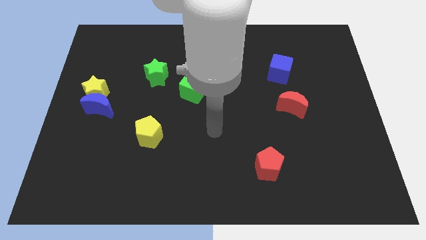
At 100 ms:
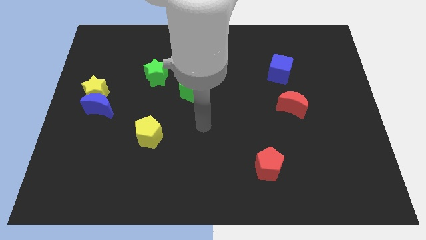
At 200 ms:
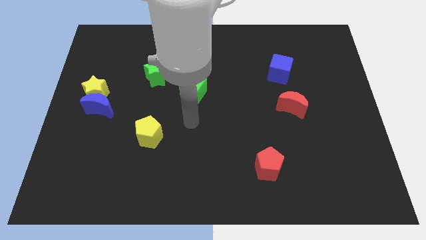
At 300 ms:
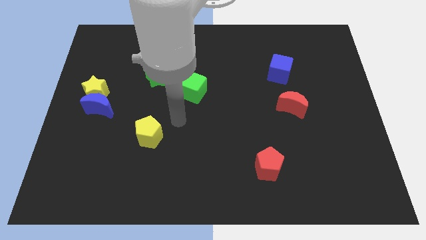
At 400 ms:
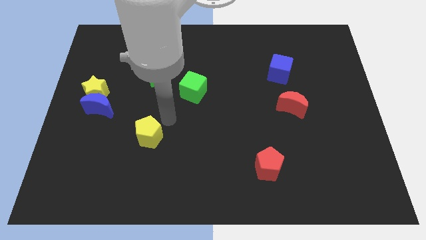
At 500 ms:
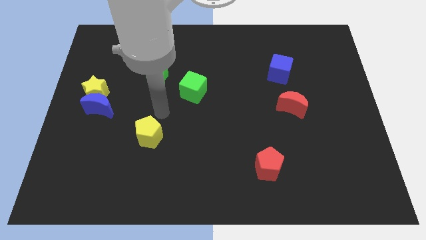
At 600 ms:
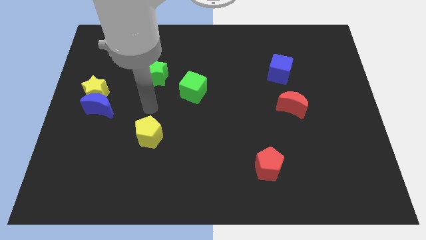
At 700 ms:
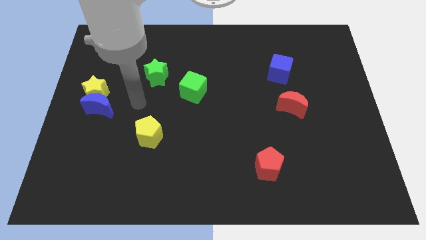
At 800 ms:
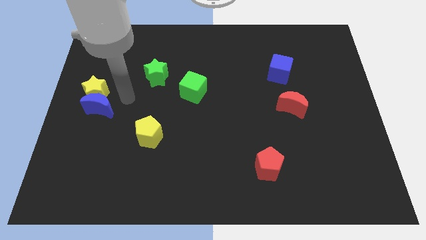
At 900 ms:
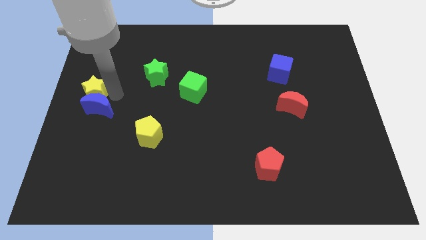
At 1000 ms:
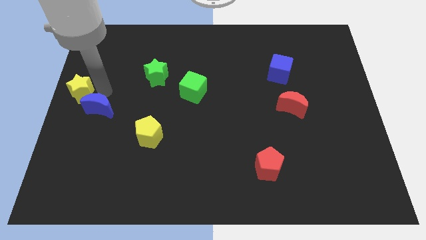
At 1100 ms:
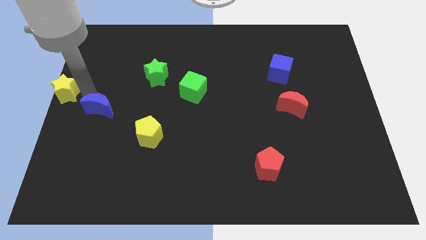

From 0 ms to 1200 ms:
separate the blue moon from the yellow star

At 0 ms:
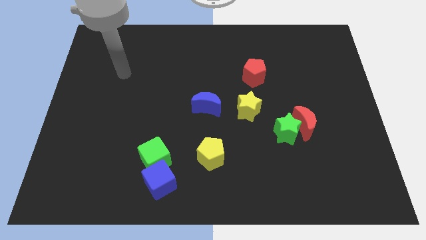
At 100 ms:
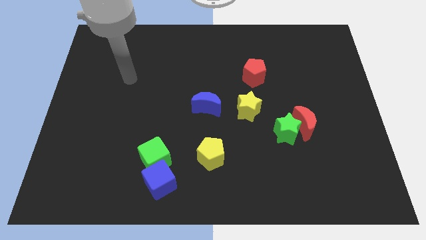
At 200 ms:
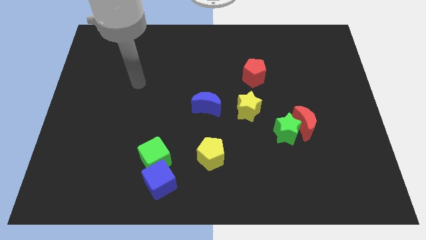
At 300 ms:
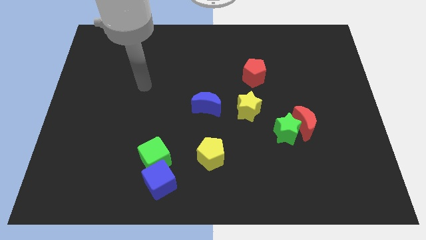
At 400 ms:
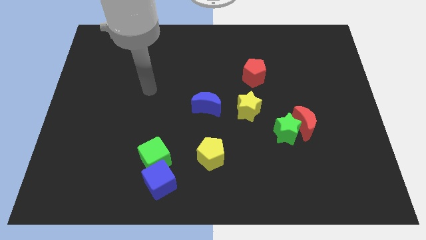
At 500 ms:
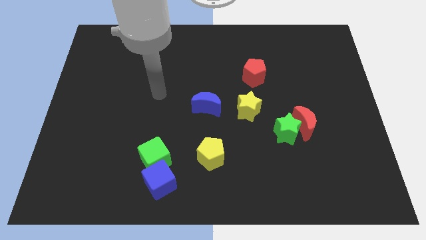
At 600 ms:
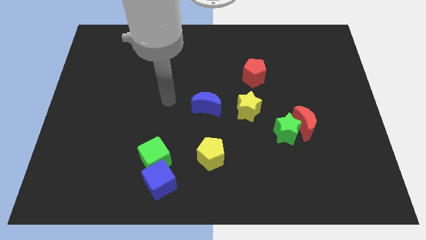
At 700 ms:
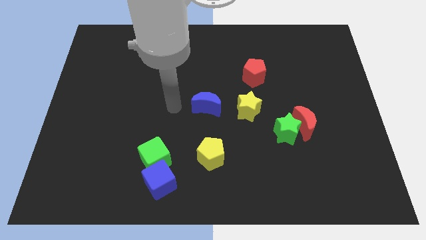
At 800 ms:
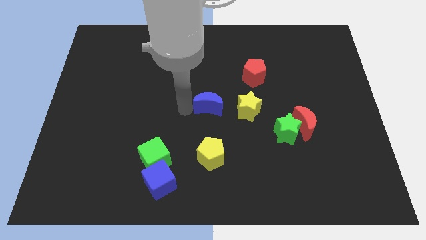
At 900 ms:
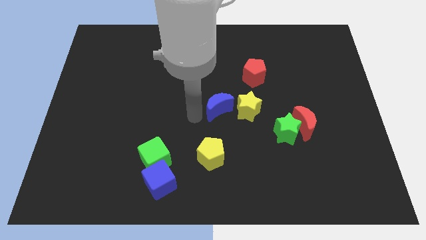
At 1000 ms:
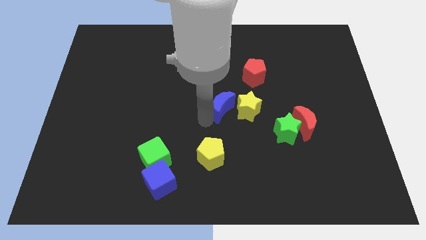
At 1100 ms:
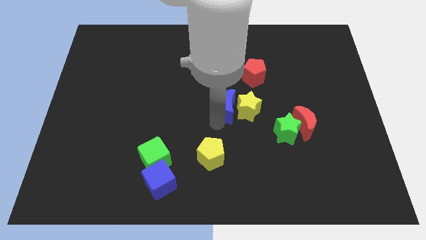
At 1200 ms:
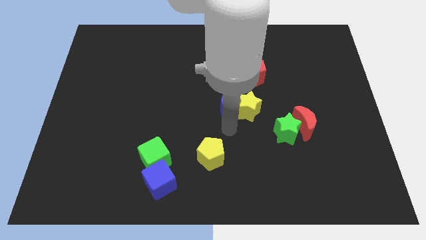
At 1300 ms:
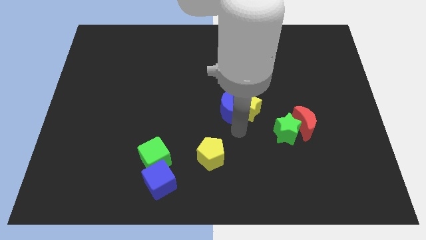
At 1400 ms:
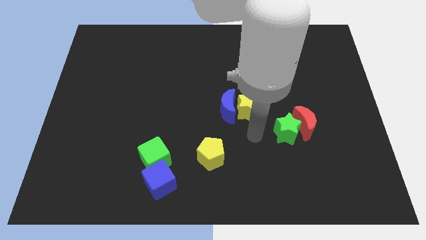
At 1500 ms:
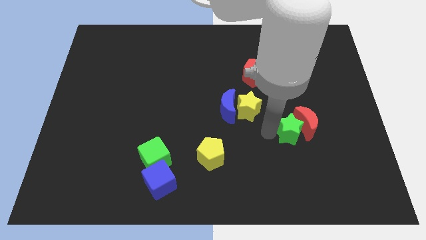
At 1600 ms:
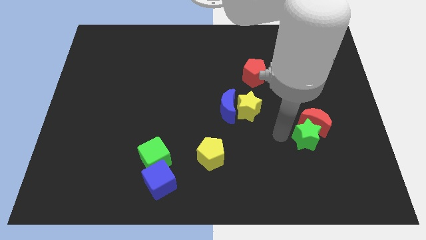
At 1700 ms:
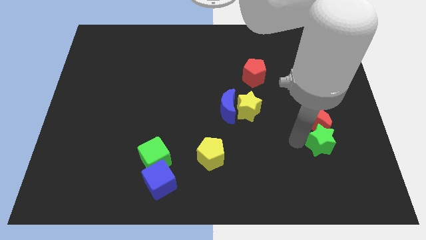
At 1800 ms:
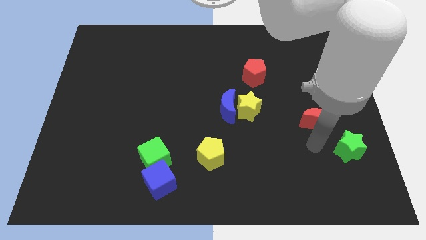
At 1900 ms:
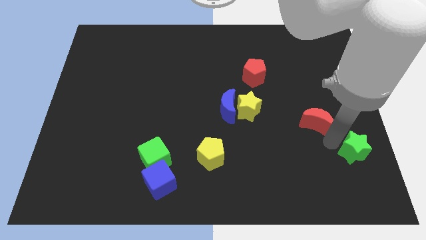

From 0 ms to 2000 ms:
move the red moon away from the green star

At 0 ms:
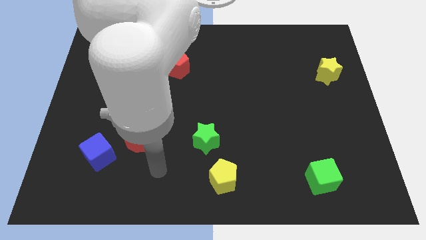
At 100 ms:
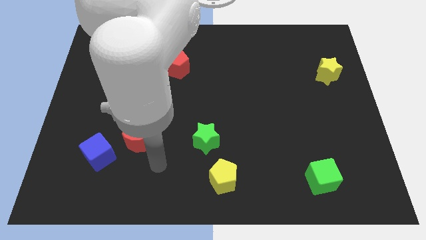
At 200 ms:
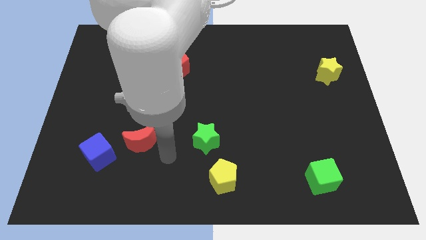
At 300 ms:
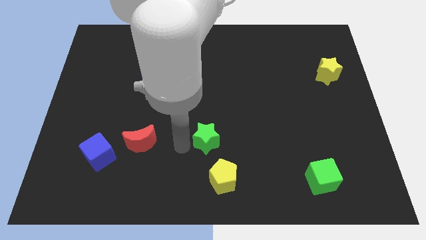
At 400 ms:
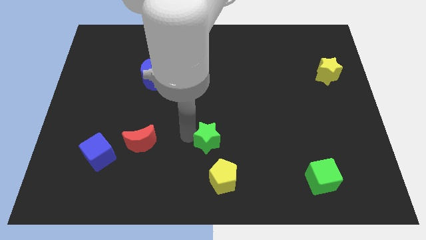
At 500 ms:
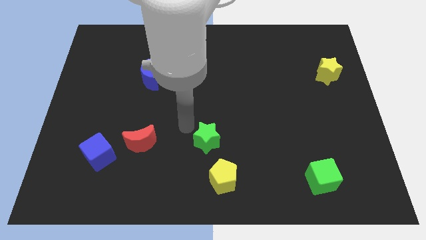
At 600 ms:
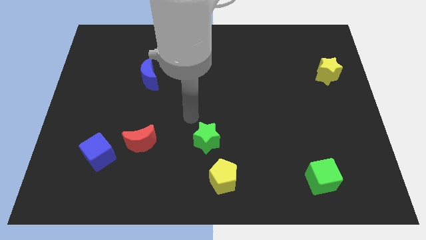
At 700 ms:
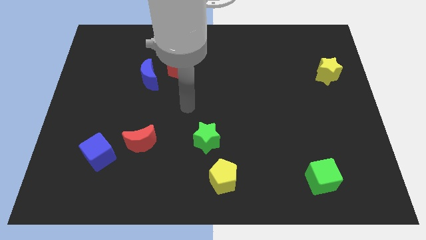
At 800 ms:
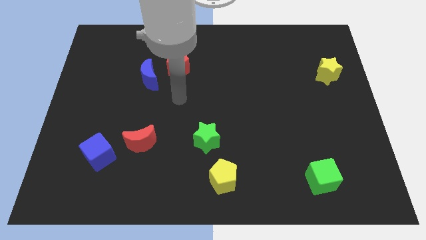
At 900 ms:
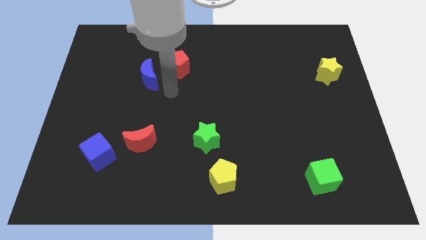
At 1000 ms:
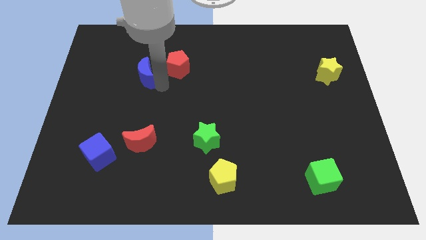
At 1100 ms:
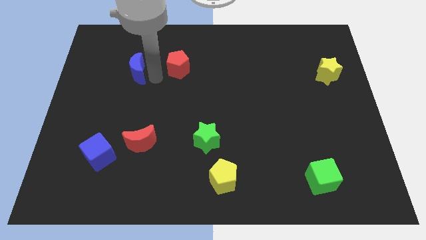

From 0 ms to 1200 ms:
pull the red pentagon apart from the blue moon

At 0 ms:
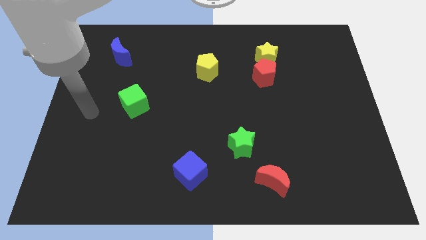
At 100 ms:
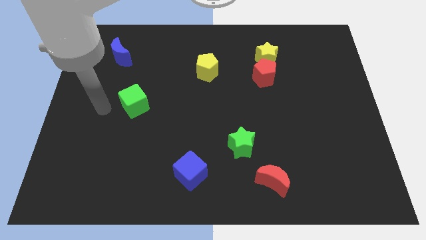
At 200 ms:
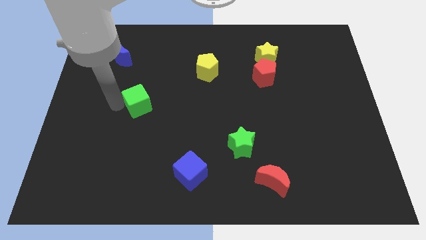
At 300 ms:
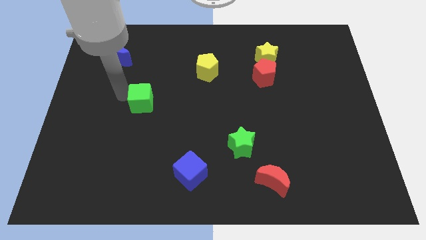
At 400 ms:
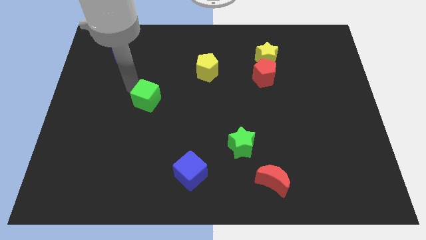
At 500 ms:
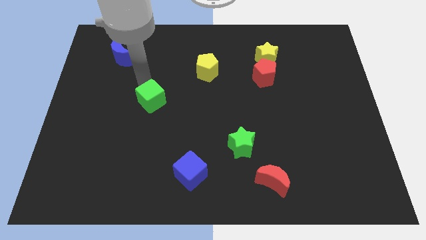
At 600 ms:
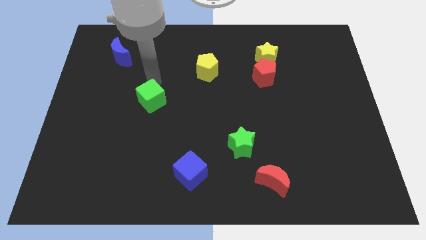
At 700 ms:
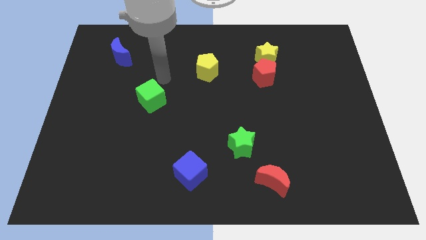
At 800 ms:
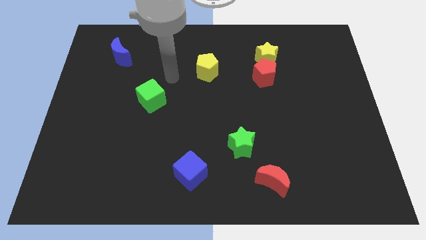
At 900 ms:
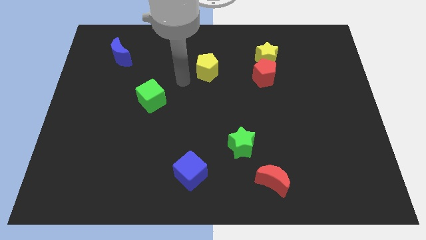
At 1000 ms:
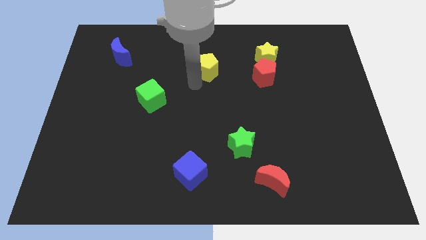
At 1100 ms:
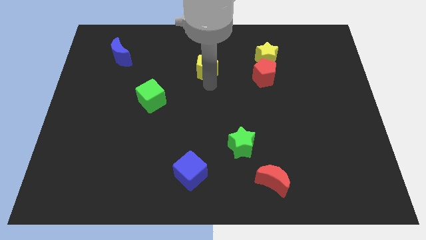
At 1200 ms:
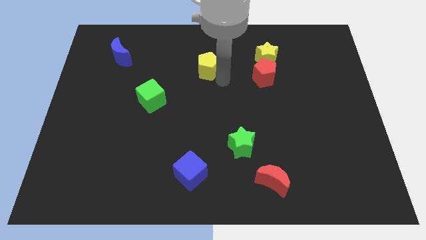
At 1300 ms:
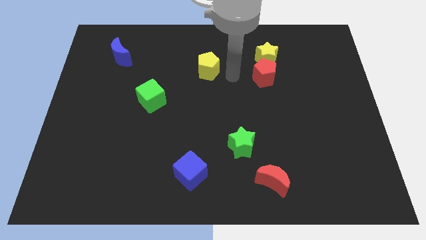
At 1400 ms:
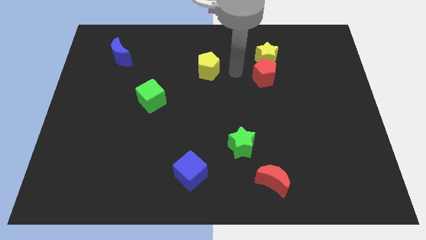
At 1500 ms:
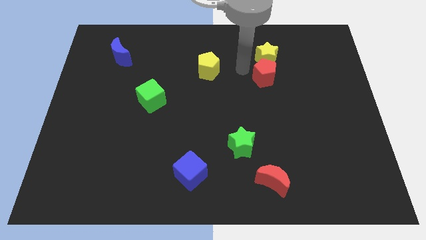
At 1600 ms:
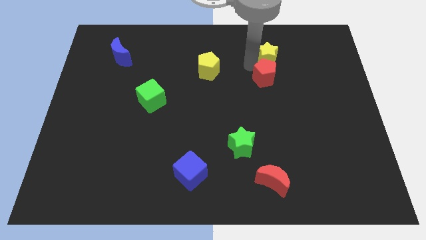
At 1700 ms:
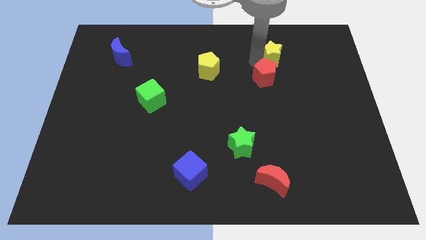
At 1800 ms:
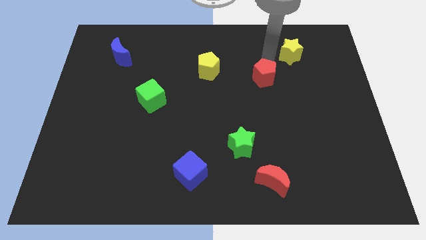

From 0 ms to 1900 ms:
pull the red pentagon apart from the yellow star

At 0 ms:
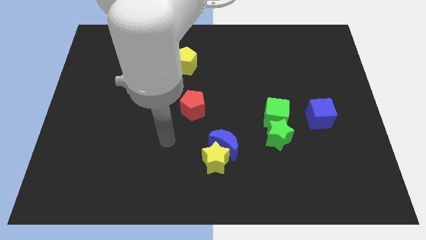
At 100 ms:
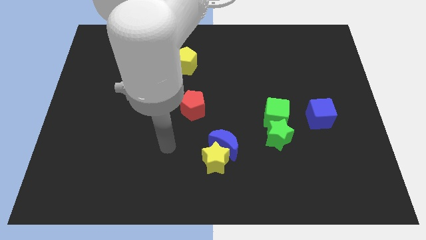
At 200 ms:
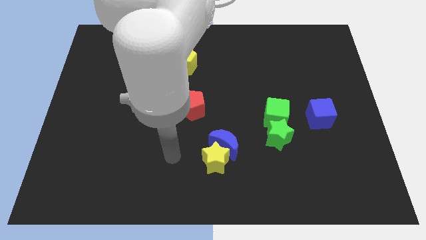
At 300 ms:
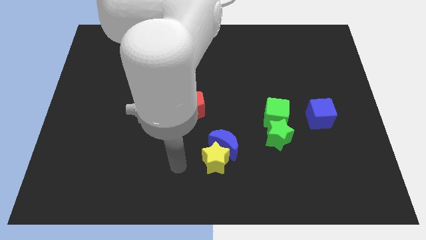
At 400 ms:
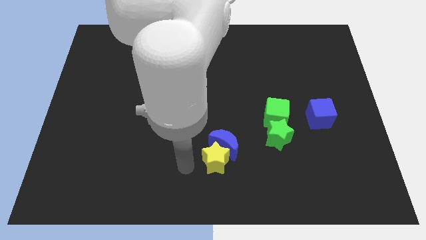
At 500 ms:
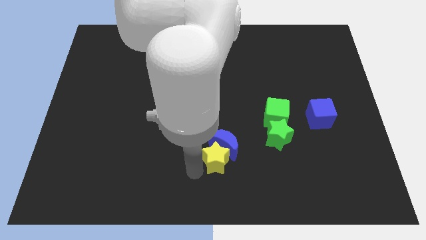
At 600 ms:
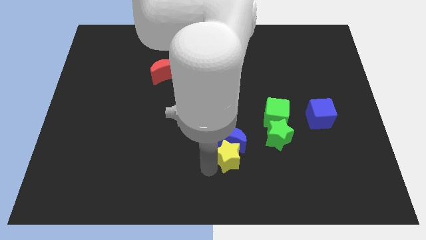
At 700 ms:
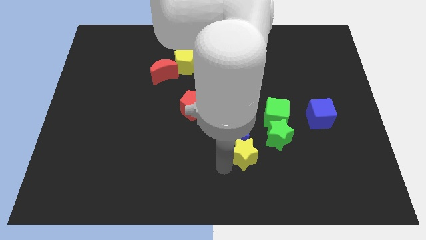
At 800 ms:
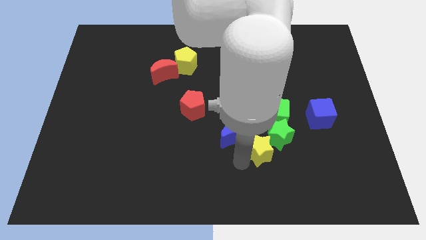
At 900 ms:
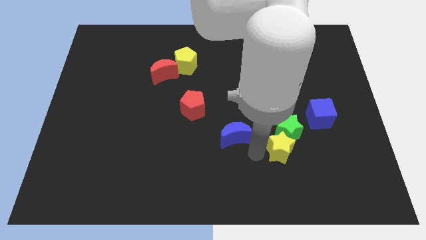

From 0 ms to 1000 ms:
move the blue moon away from the yellow star

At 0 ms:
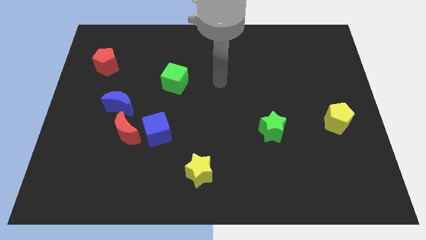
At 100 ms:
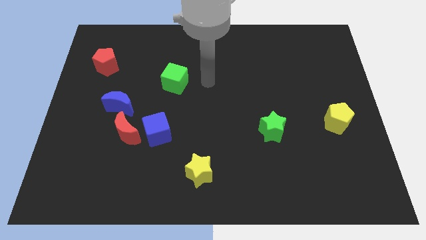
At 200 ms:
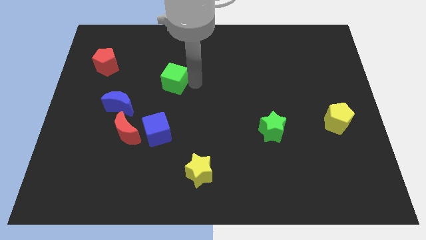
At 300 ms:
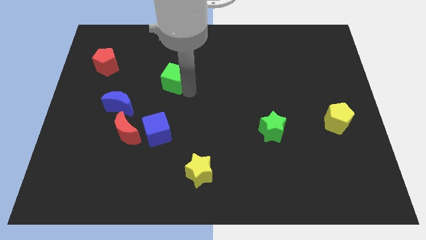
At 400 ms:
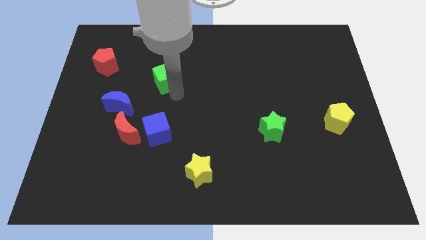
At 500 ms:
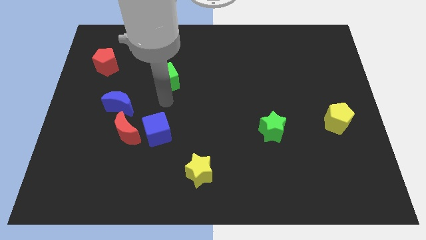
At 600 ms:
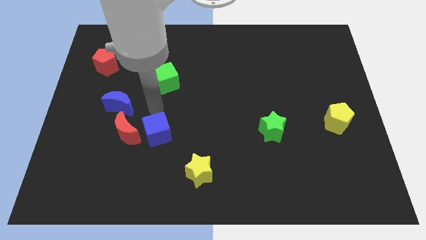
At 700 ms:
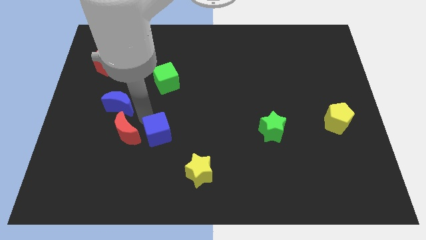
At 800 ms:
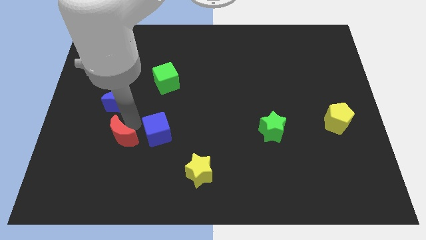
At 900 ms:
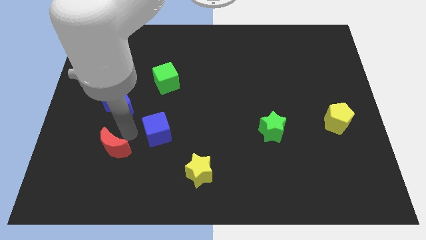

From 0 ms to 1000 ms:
pull the blue cube apart from the red moon

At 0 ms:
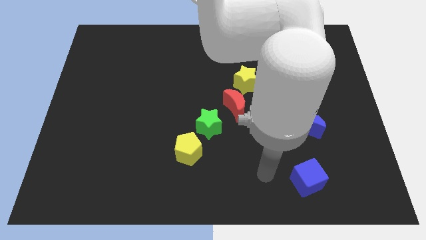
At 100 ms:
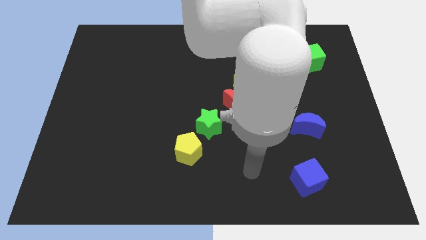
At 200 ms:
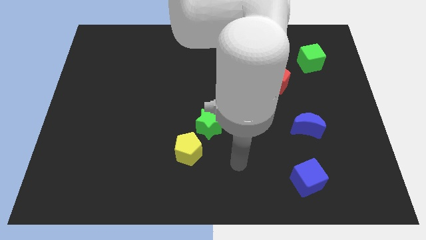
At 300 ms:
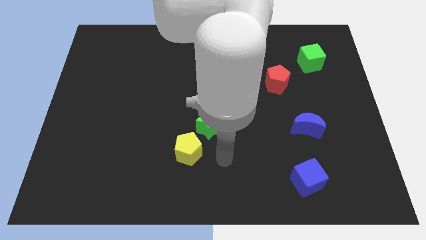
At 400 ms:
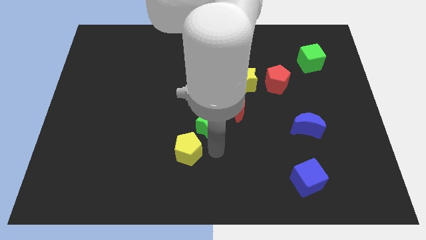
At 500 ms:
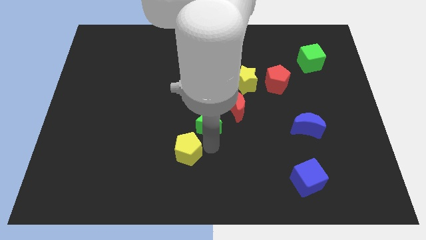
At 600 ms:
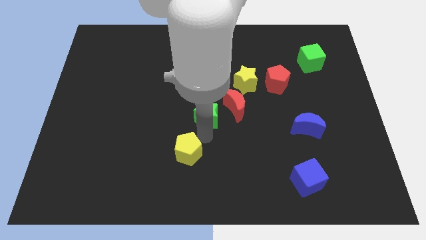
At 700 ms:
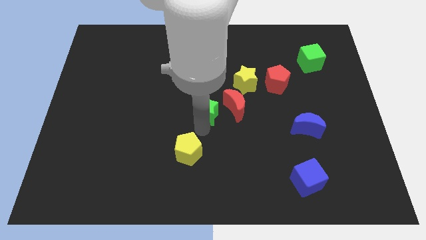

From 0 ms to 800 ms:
pull the yellow pentagon apart from the green star

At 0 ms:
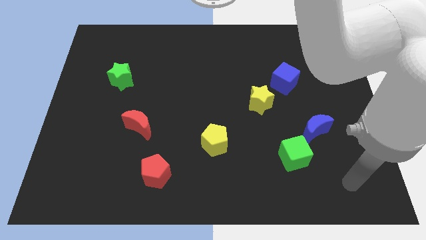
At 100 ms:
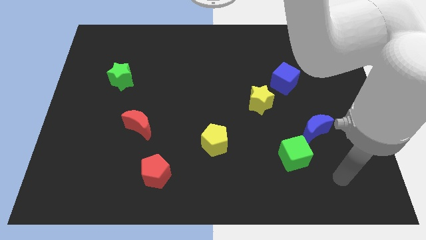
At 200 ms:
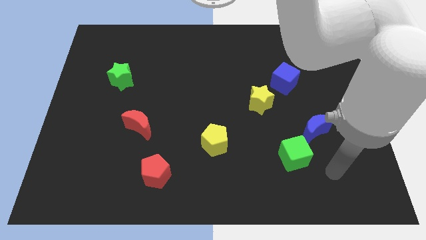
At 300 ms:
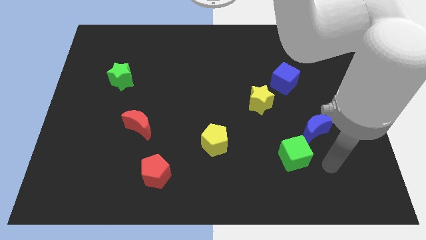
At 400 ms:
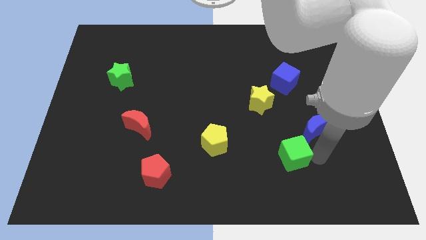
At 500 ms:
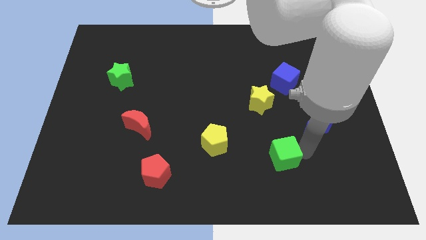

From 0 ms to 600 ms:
move the blue moon away from the green cube
